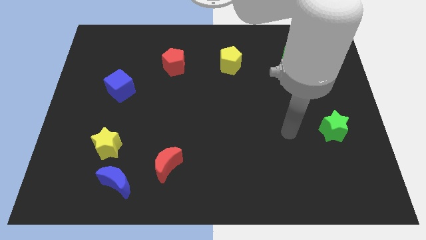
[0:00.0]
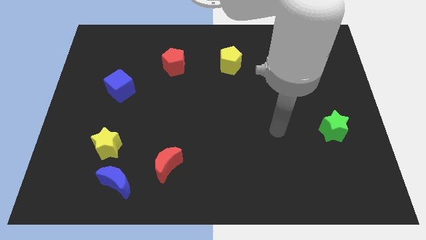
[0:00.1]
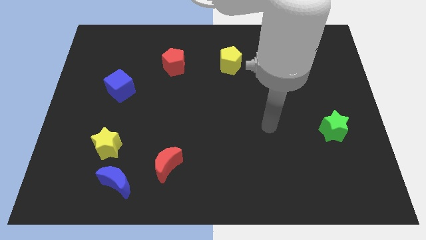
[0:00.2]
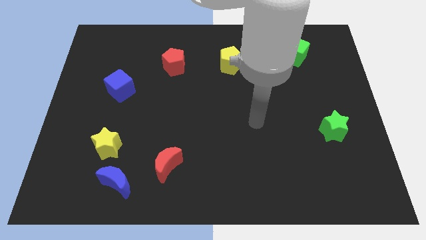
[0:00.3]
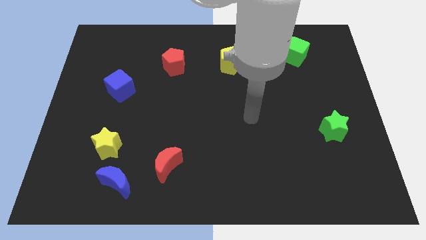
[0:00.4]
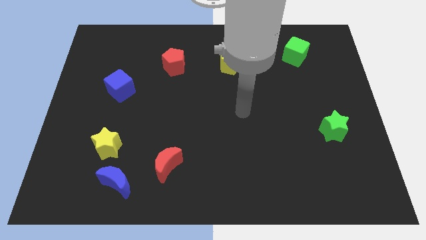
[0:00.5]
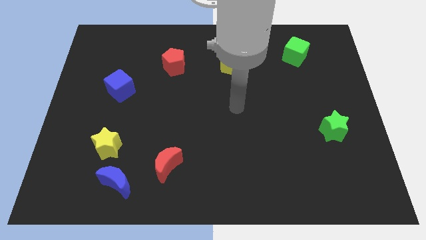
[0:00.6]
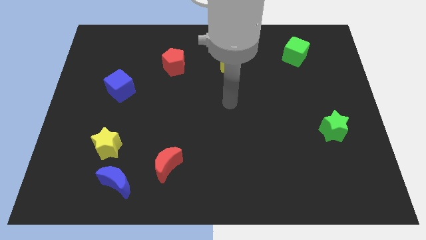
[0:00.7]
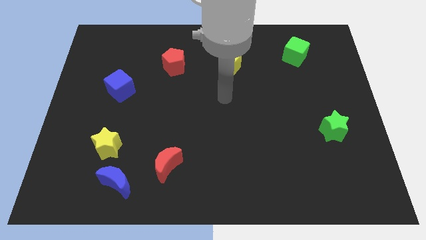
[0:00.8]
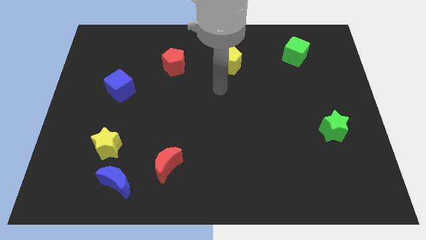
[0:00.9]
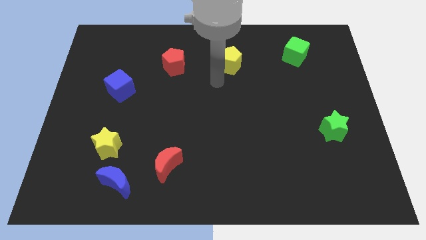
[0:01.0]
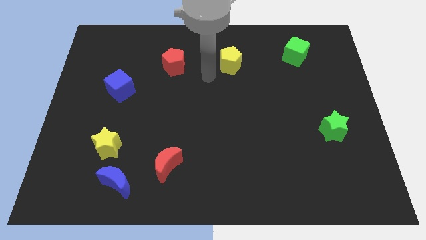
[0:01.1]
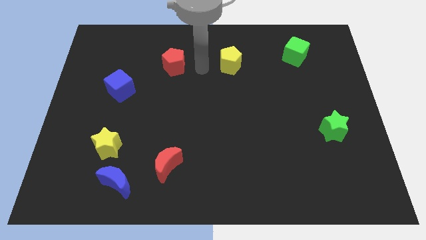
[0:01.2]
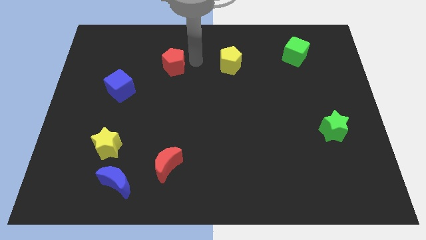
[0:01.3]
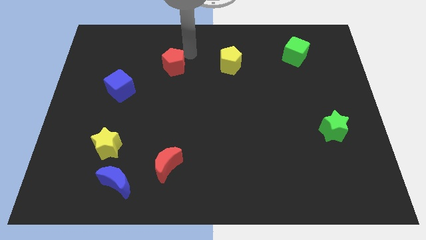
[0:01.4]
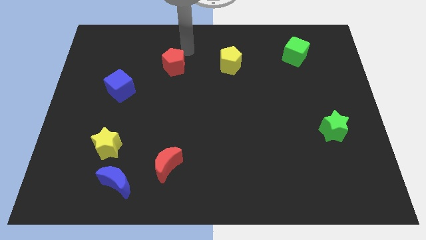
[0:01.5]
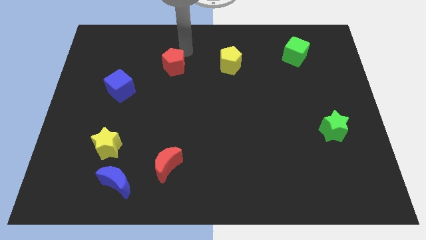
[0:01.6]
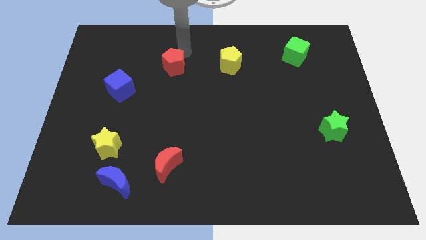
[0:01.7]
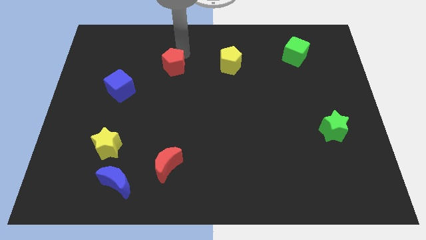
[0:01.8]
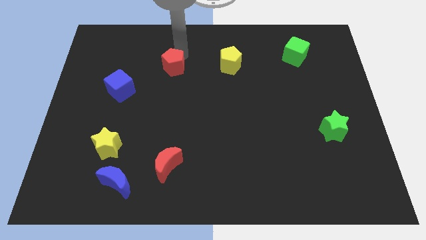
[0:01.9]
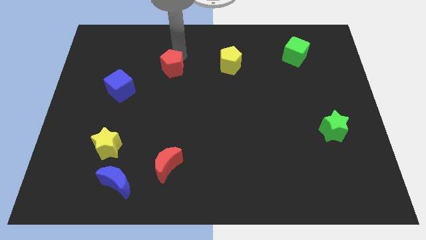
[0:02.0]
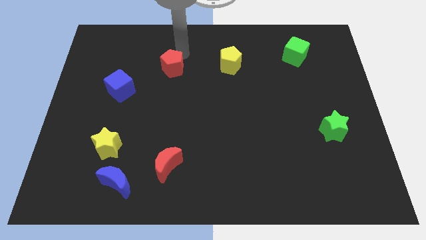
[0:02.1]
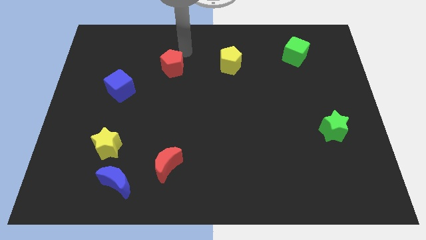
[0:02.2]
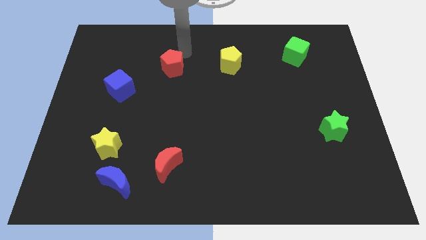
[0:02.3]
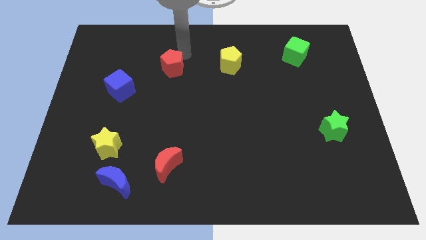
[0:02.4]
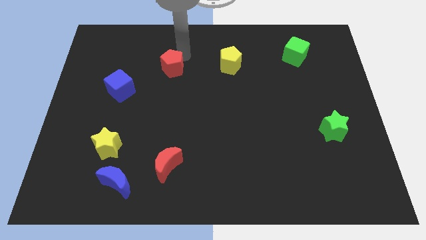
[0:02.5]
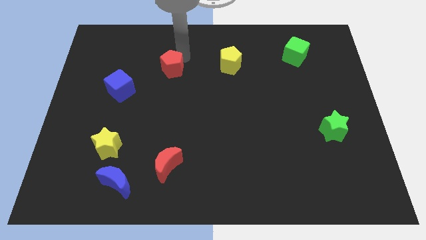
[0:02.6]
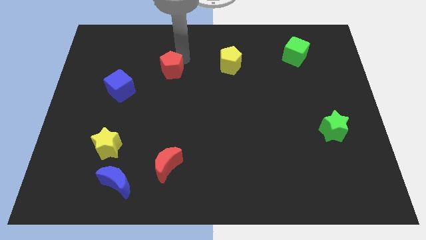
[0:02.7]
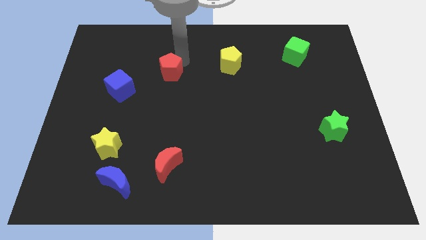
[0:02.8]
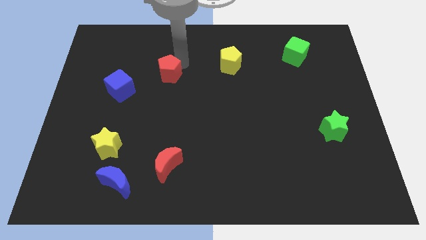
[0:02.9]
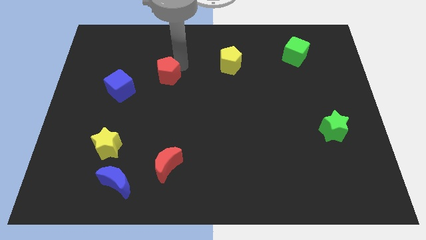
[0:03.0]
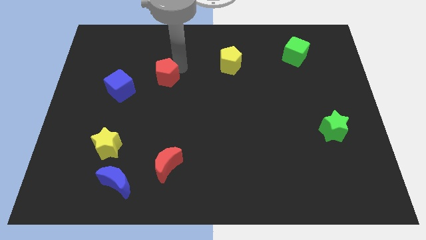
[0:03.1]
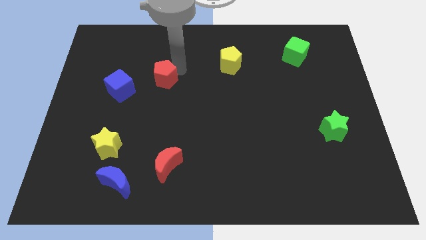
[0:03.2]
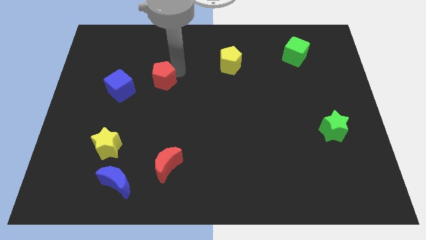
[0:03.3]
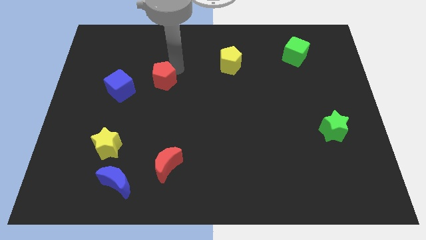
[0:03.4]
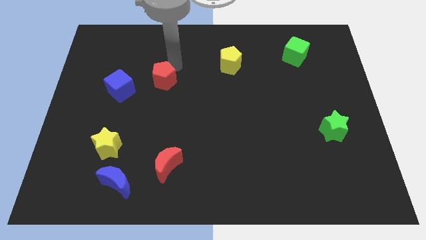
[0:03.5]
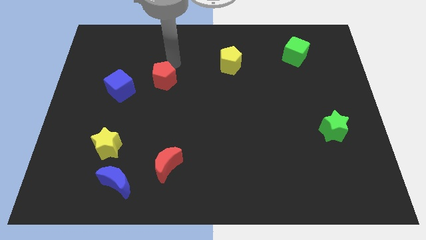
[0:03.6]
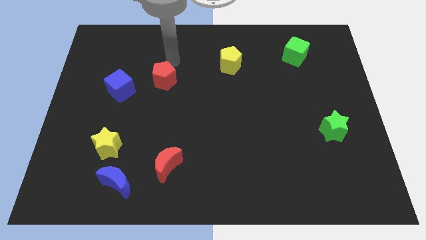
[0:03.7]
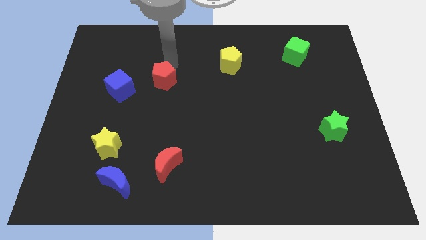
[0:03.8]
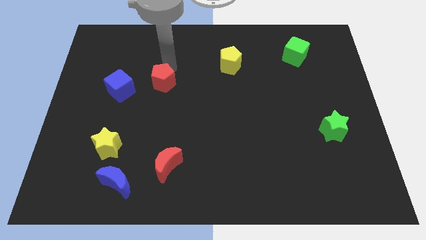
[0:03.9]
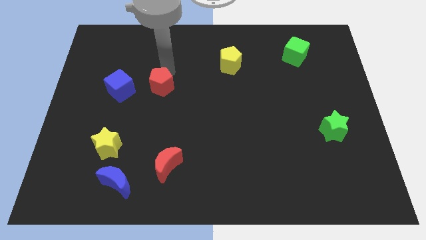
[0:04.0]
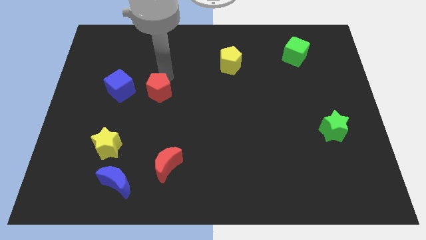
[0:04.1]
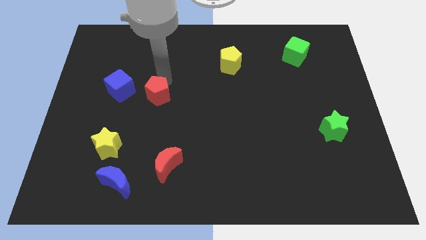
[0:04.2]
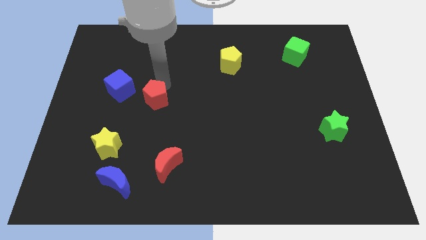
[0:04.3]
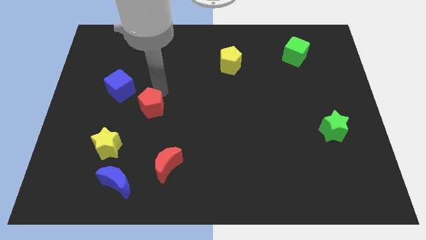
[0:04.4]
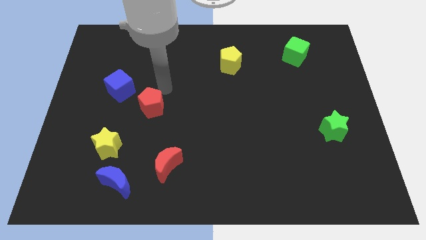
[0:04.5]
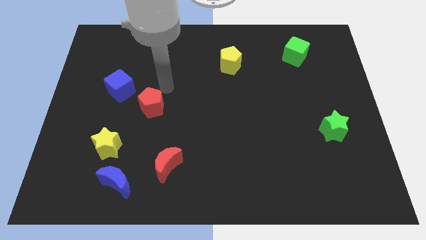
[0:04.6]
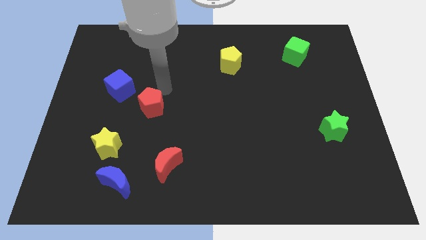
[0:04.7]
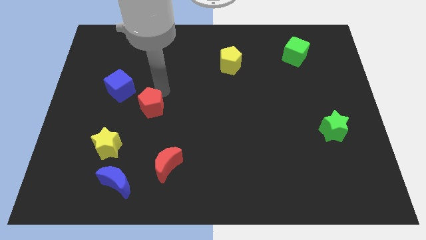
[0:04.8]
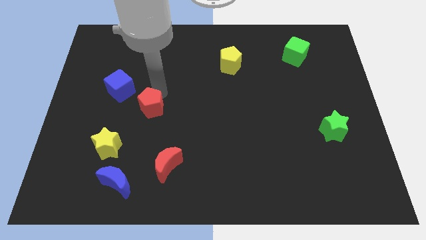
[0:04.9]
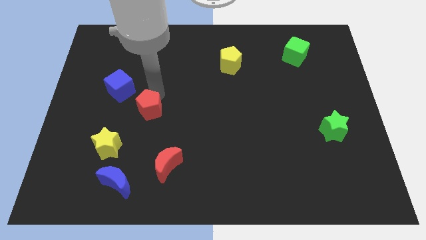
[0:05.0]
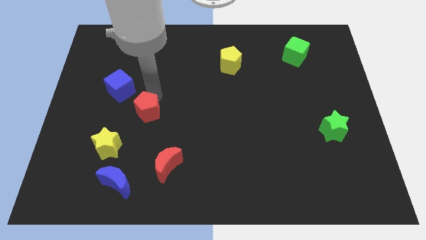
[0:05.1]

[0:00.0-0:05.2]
put the red pentagon diagonally up and to the right of the yellow star

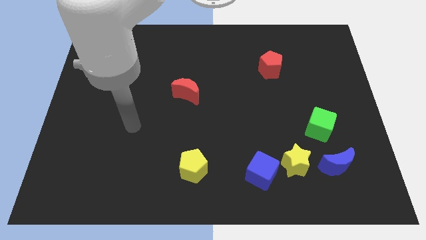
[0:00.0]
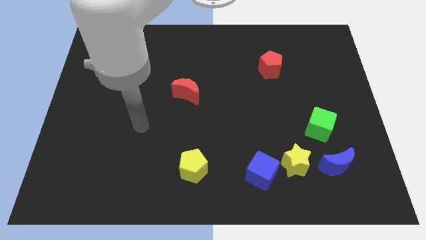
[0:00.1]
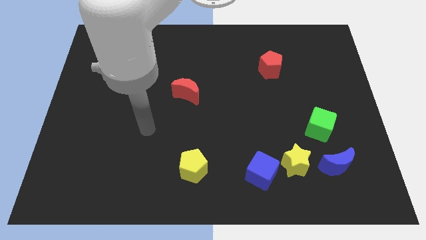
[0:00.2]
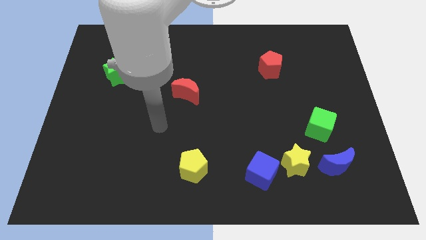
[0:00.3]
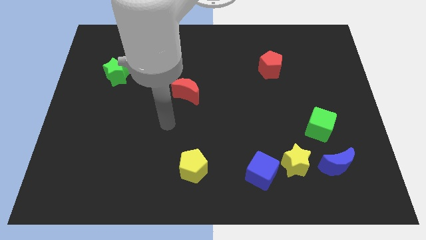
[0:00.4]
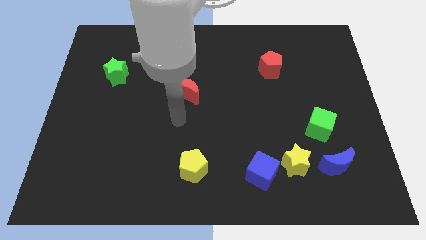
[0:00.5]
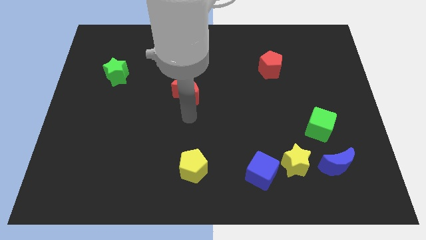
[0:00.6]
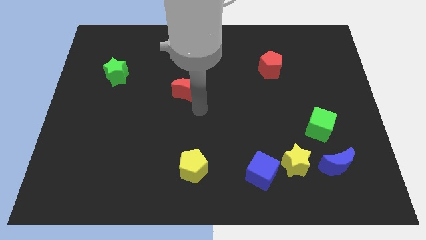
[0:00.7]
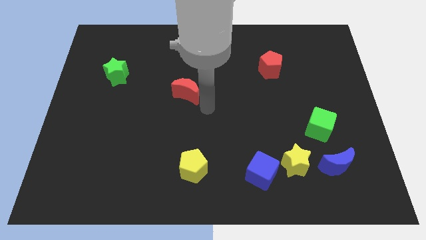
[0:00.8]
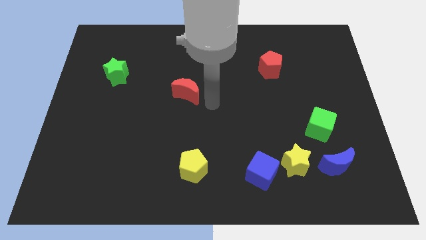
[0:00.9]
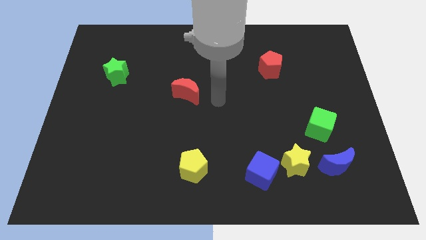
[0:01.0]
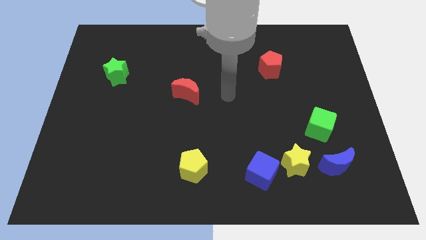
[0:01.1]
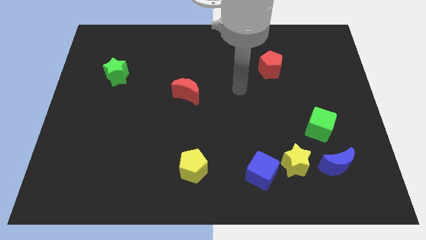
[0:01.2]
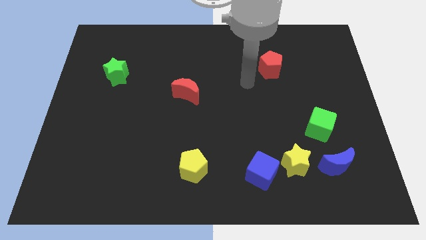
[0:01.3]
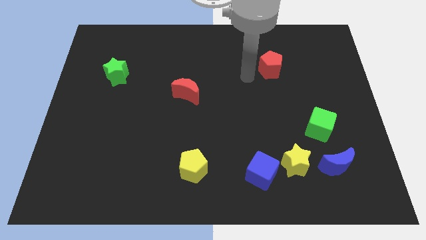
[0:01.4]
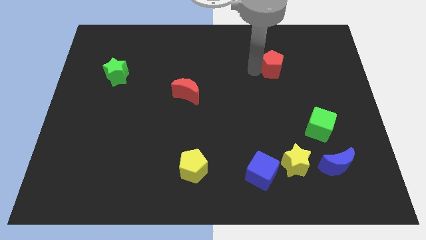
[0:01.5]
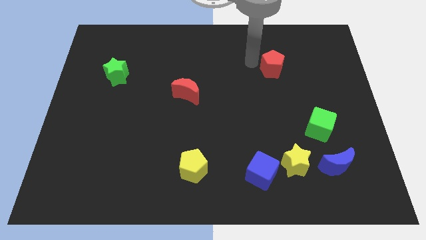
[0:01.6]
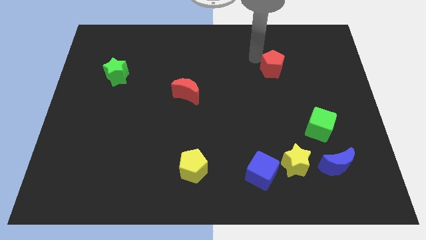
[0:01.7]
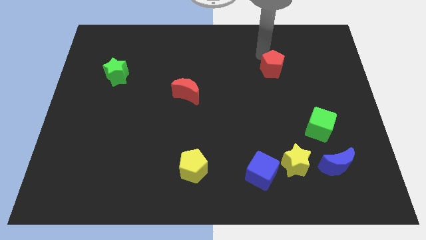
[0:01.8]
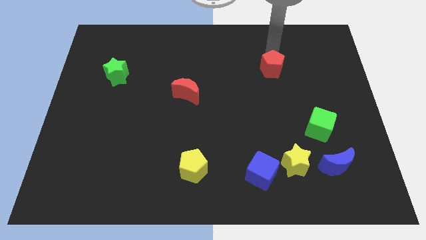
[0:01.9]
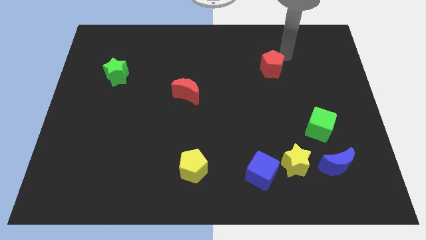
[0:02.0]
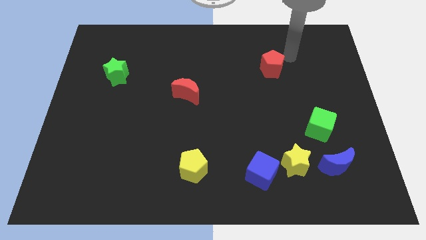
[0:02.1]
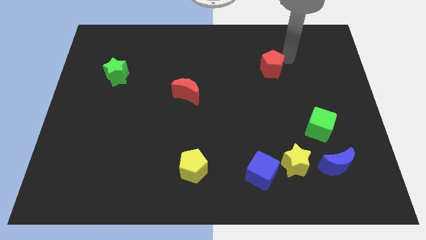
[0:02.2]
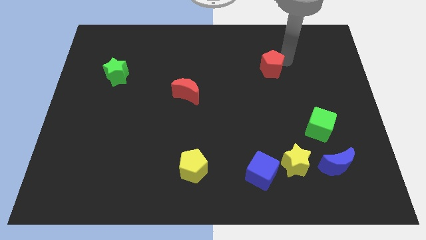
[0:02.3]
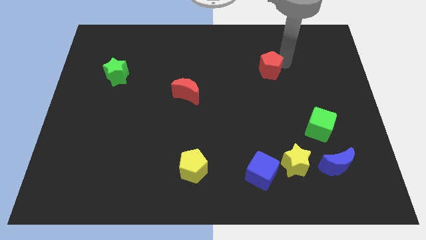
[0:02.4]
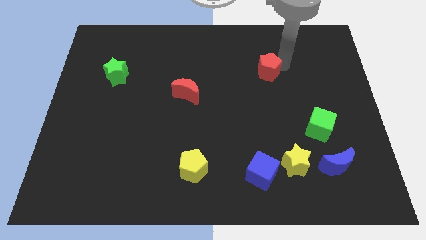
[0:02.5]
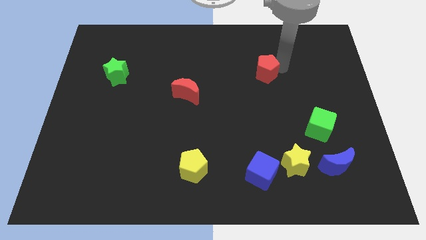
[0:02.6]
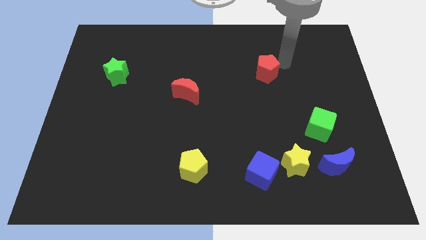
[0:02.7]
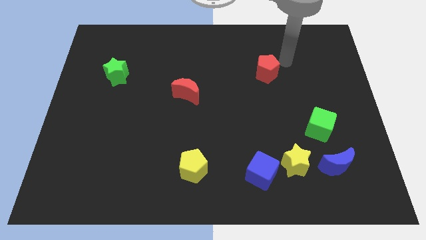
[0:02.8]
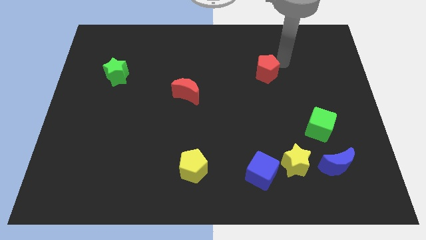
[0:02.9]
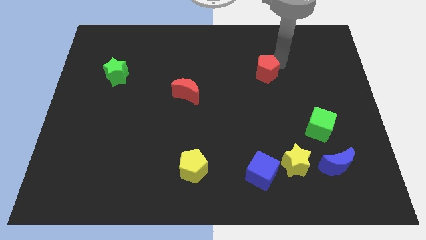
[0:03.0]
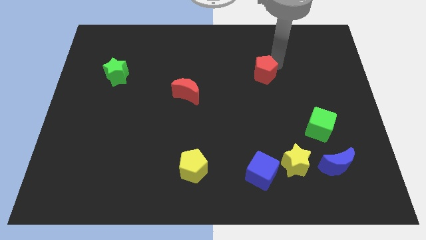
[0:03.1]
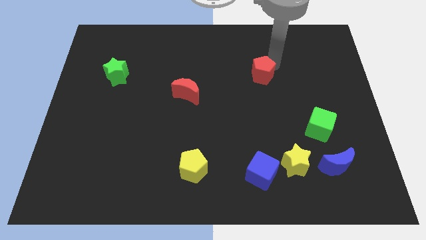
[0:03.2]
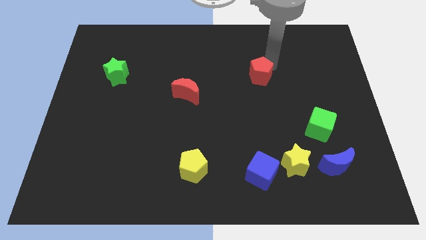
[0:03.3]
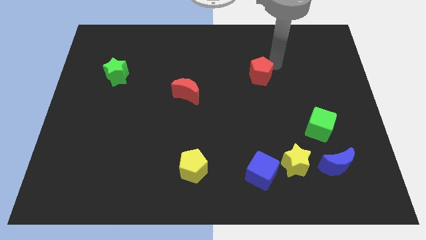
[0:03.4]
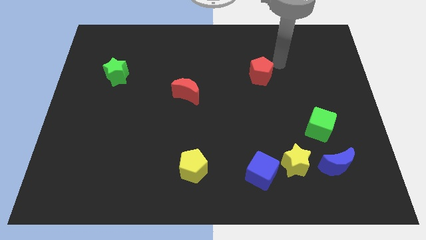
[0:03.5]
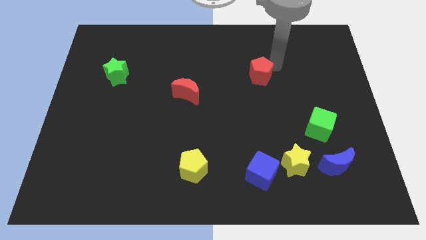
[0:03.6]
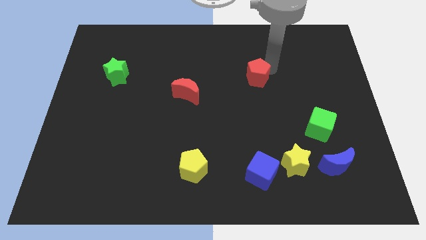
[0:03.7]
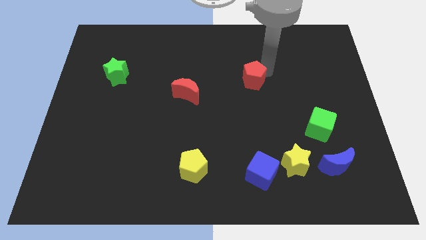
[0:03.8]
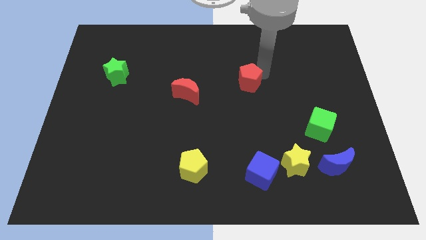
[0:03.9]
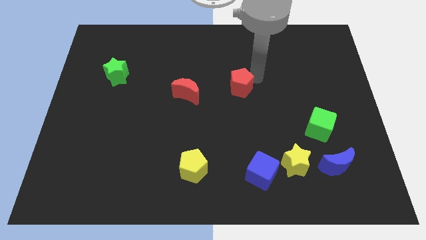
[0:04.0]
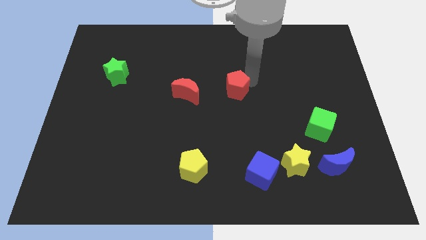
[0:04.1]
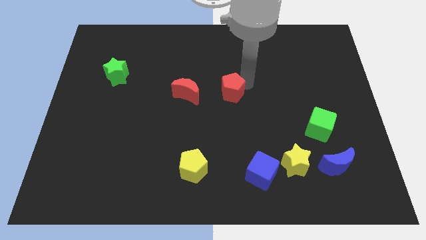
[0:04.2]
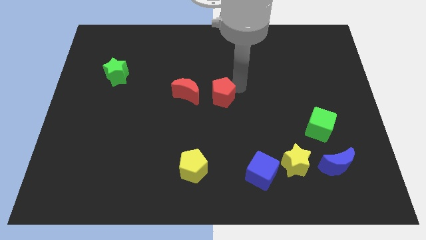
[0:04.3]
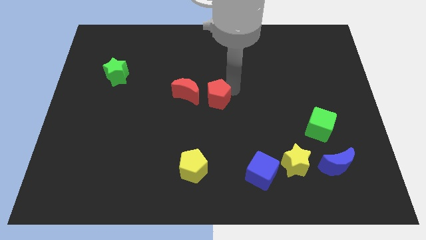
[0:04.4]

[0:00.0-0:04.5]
slide the red pentagon to the bottom right of the red moon
